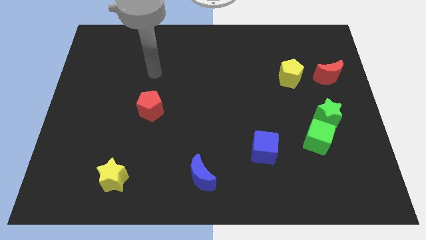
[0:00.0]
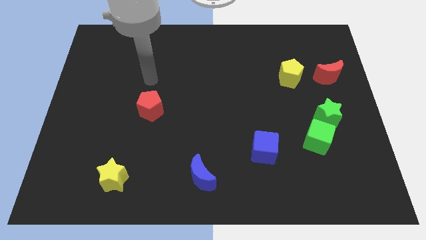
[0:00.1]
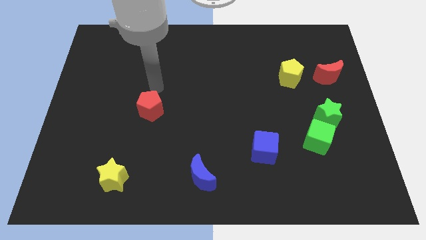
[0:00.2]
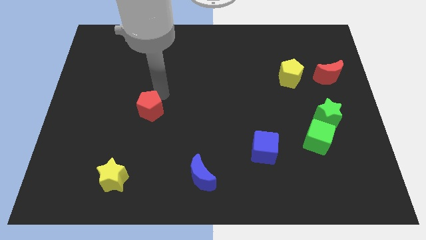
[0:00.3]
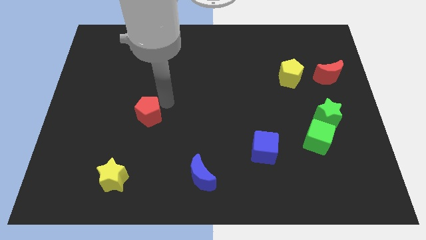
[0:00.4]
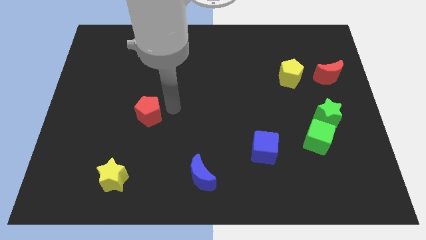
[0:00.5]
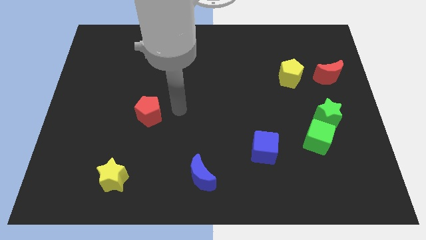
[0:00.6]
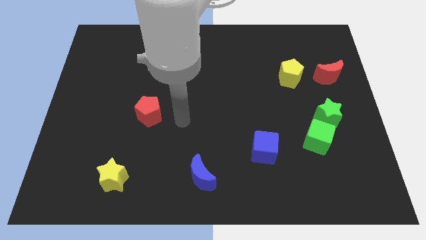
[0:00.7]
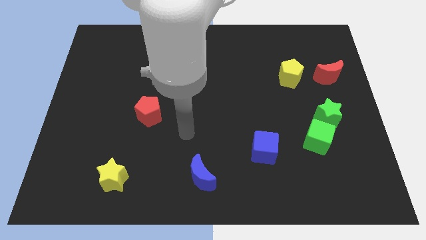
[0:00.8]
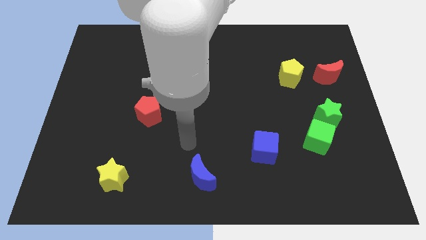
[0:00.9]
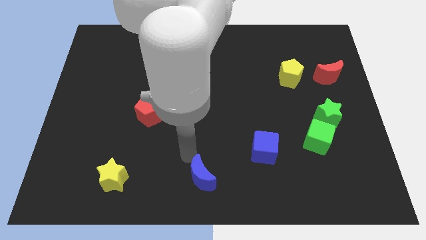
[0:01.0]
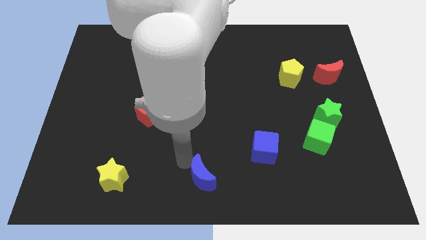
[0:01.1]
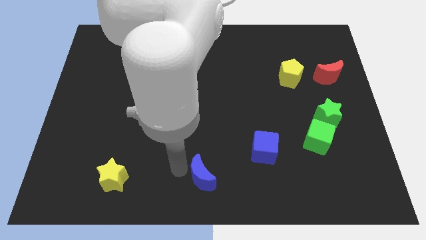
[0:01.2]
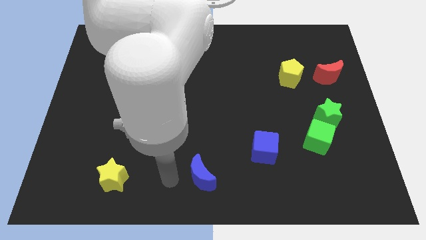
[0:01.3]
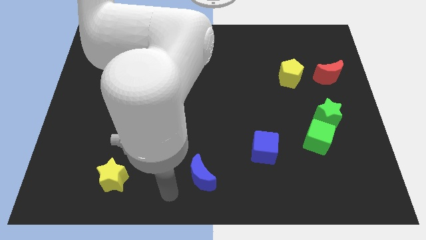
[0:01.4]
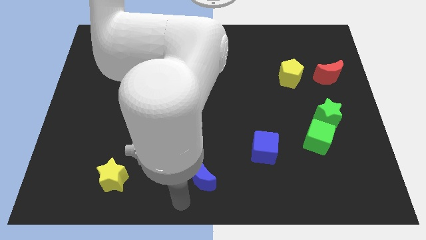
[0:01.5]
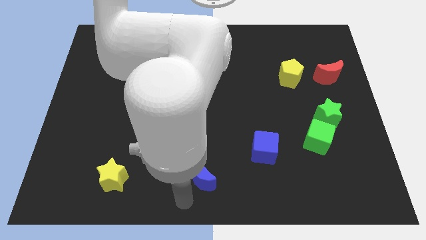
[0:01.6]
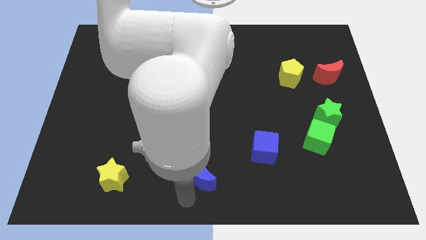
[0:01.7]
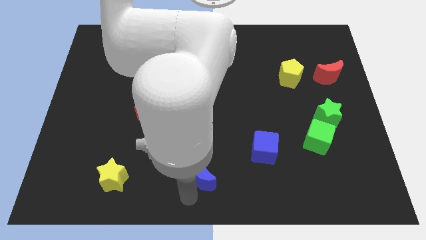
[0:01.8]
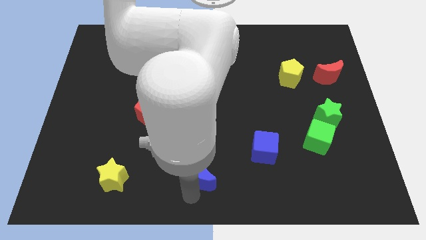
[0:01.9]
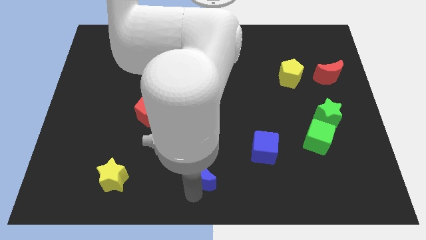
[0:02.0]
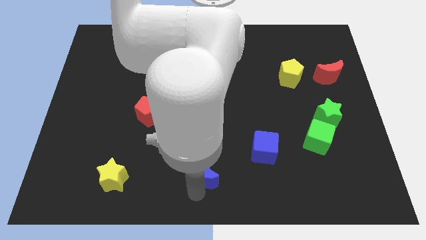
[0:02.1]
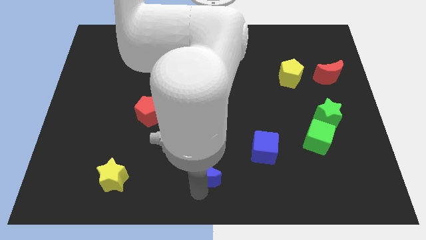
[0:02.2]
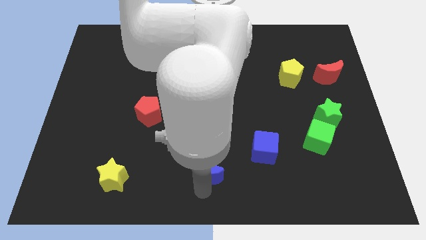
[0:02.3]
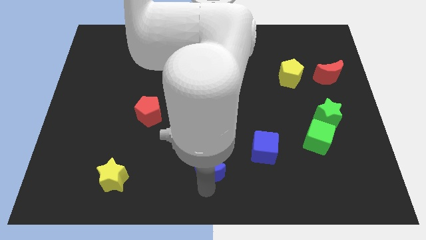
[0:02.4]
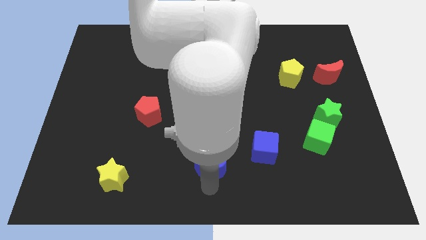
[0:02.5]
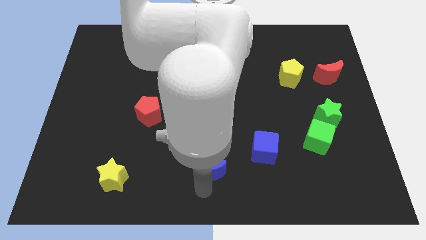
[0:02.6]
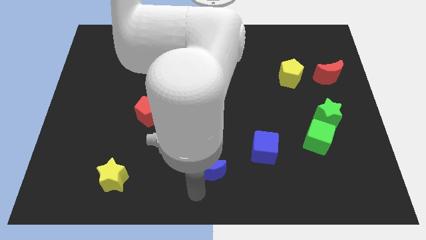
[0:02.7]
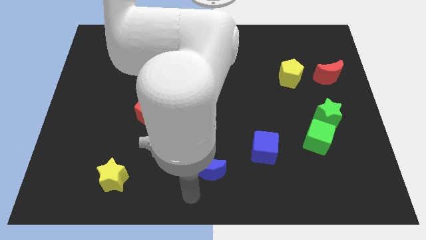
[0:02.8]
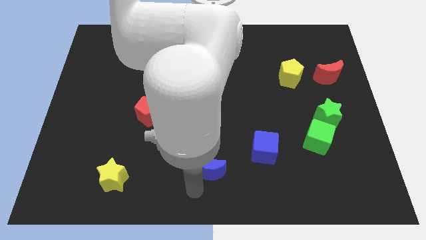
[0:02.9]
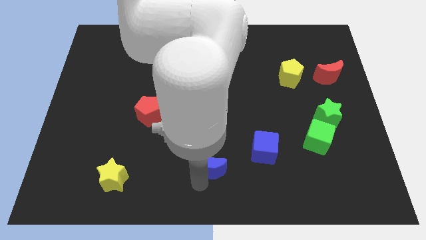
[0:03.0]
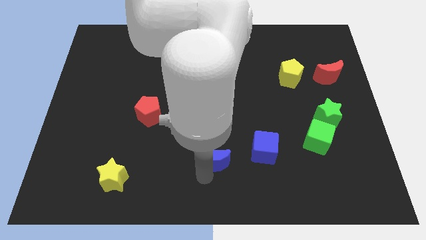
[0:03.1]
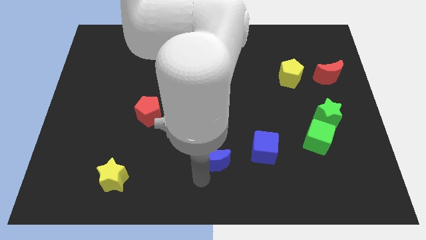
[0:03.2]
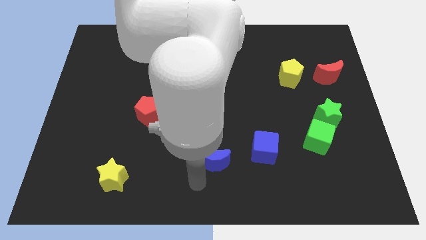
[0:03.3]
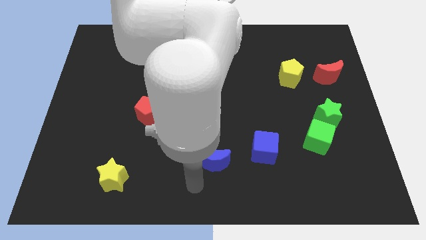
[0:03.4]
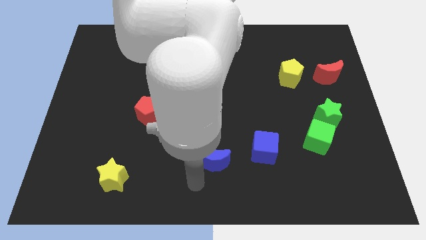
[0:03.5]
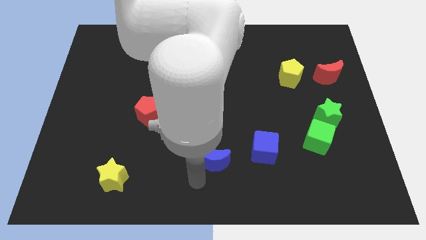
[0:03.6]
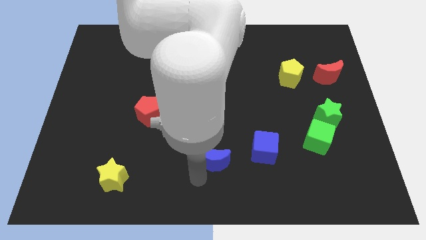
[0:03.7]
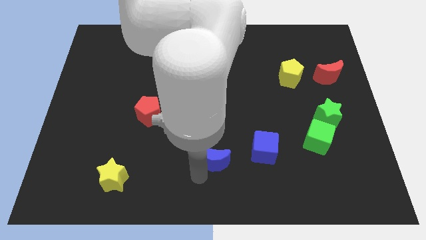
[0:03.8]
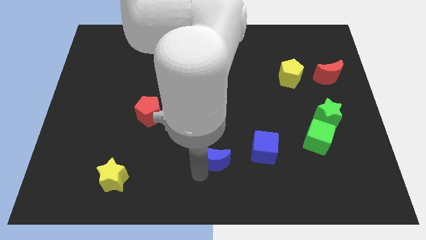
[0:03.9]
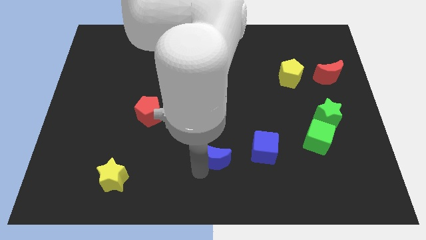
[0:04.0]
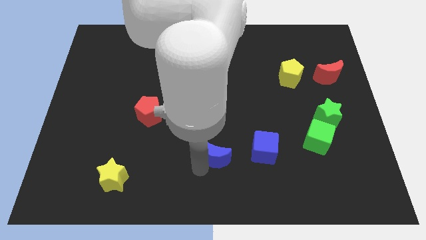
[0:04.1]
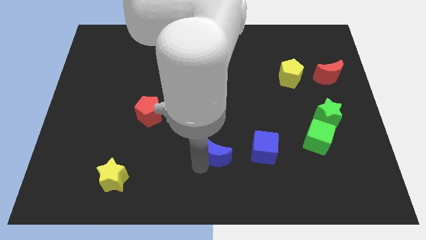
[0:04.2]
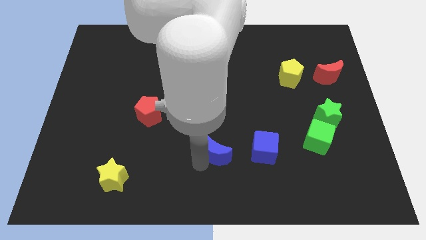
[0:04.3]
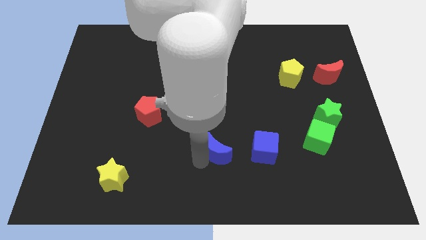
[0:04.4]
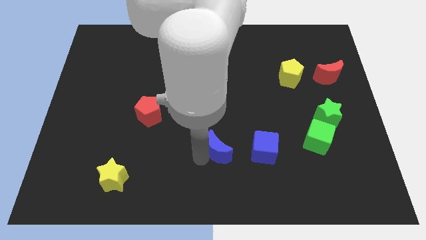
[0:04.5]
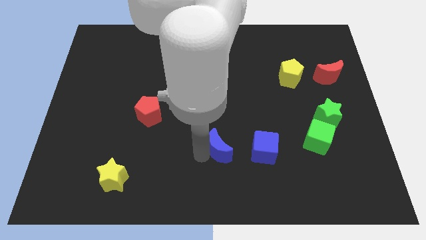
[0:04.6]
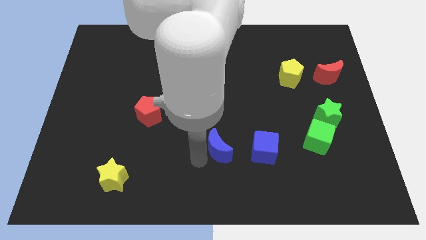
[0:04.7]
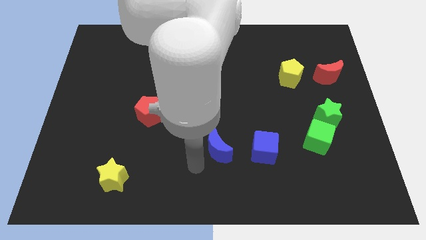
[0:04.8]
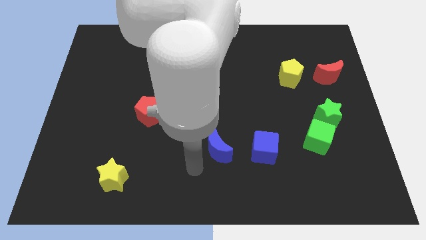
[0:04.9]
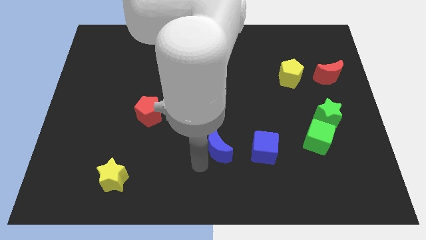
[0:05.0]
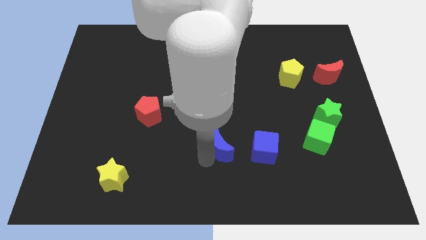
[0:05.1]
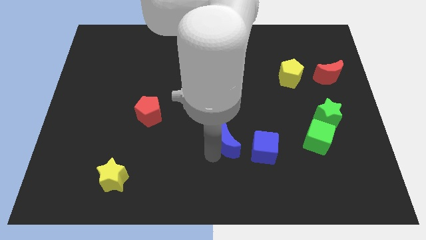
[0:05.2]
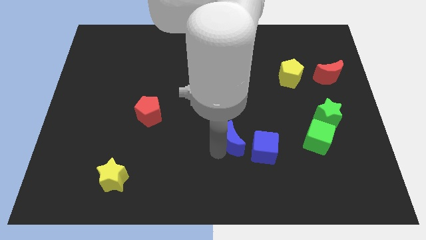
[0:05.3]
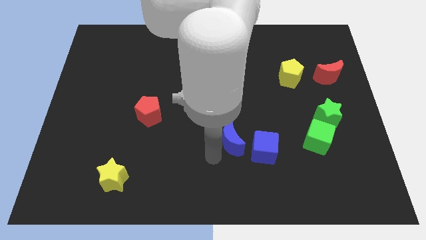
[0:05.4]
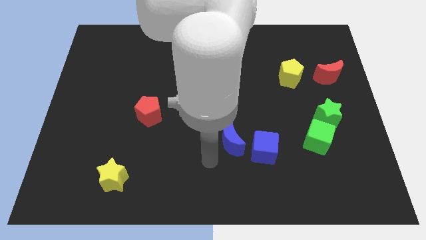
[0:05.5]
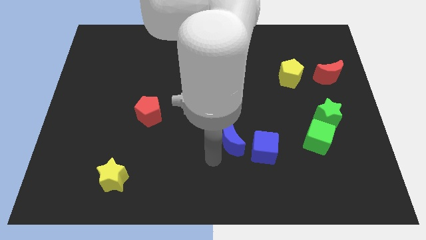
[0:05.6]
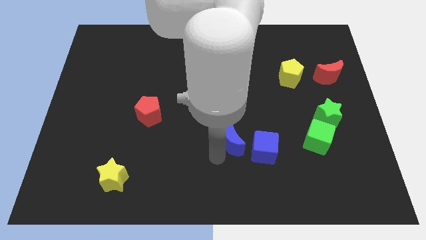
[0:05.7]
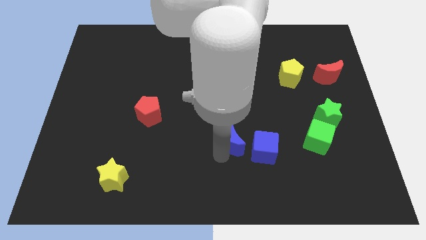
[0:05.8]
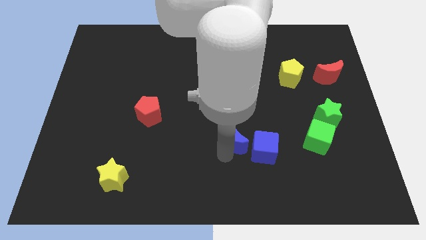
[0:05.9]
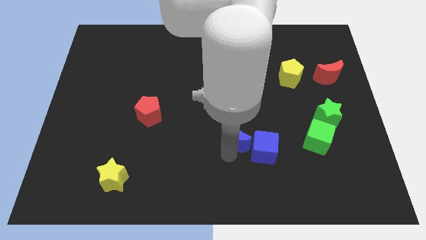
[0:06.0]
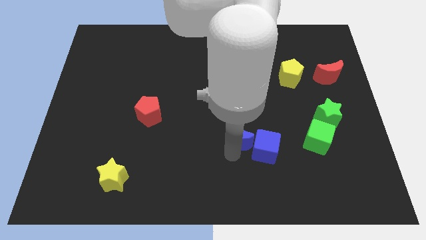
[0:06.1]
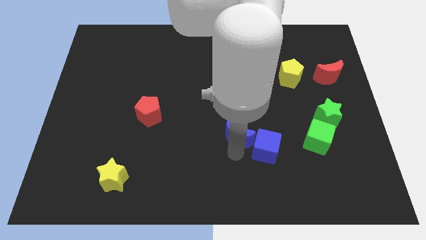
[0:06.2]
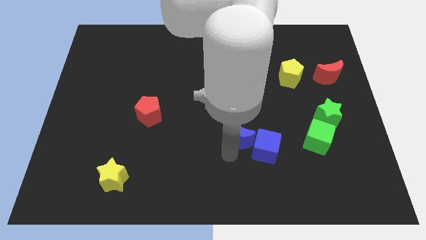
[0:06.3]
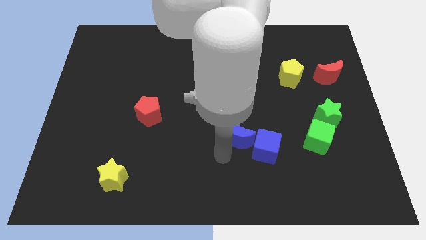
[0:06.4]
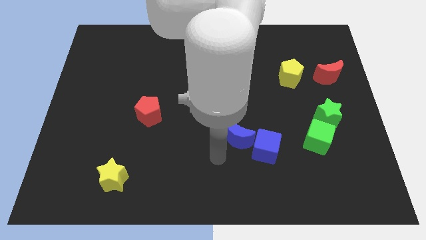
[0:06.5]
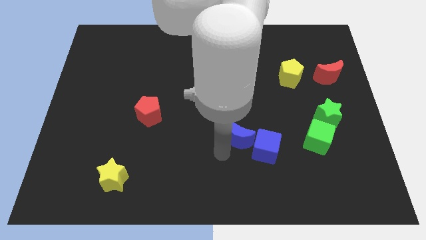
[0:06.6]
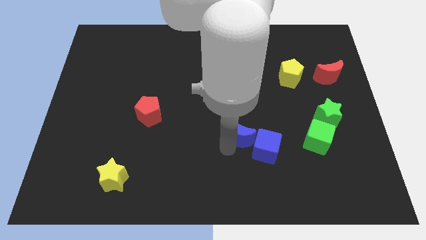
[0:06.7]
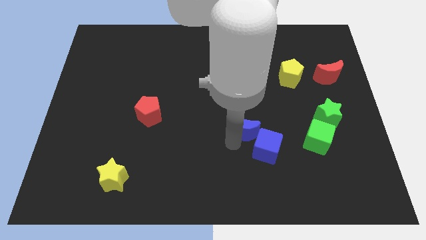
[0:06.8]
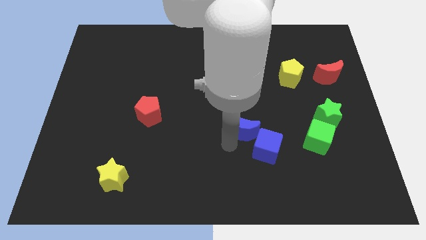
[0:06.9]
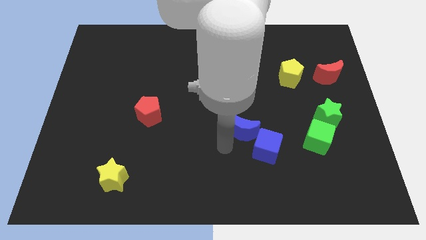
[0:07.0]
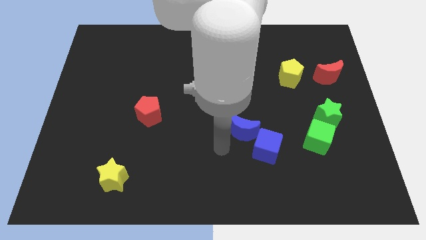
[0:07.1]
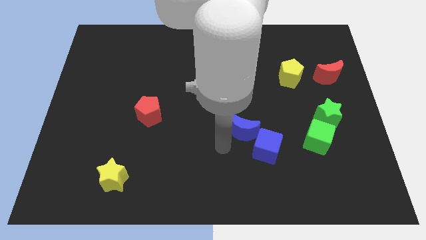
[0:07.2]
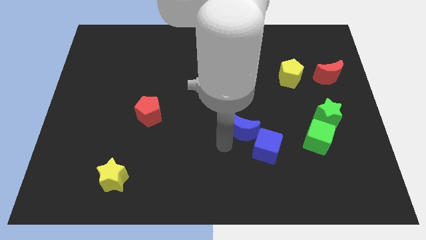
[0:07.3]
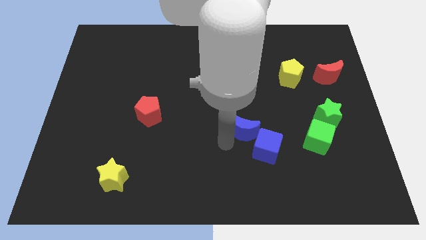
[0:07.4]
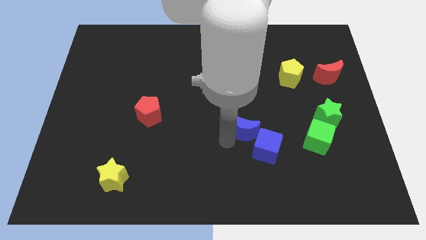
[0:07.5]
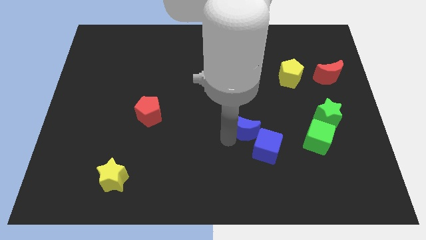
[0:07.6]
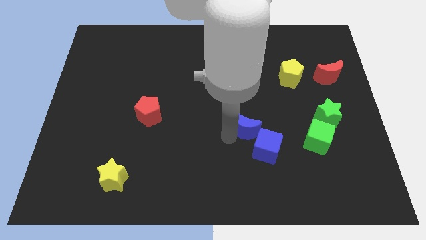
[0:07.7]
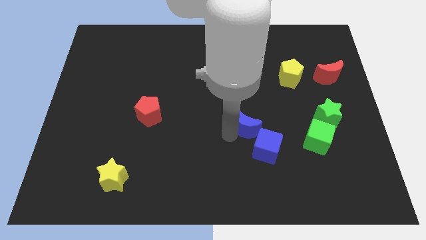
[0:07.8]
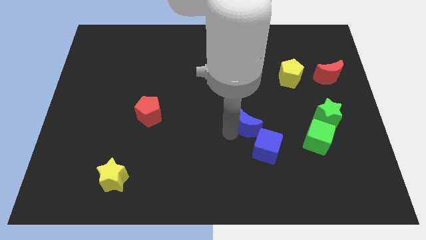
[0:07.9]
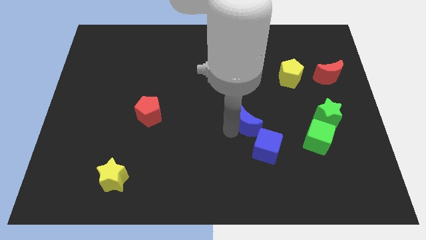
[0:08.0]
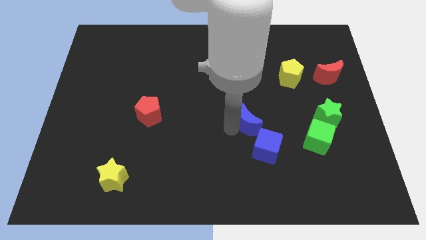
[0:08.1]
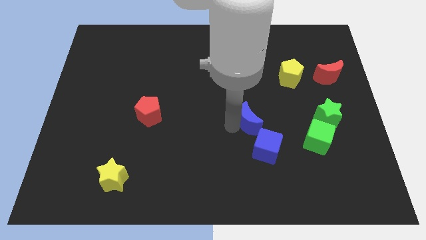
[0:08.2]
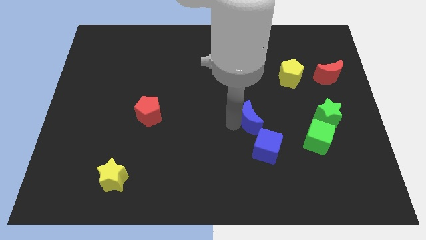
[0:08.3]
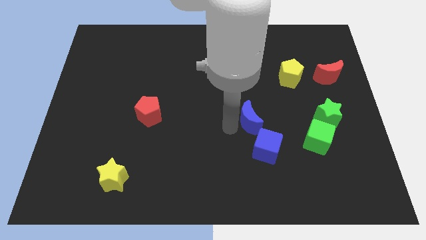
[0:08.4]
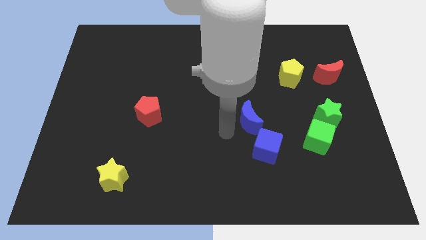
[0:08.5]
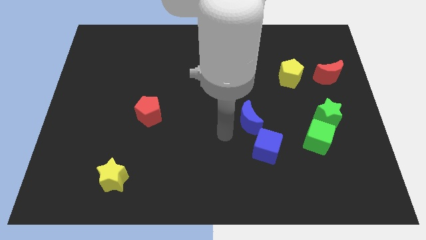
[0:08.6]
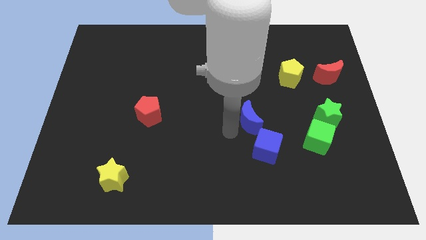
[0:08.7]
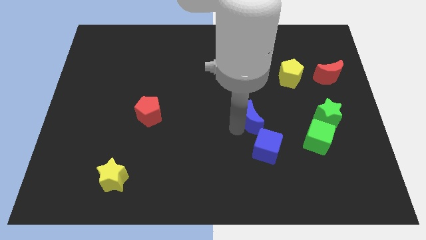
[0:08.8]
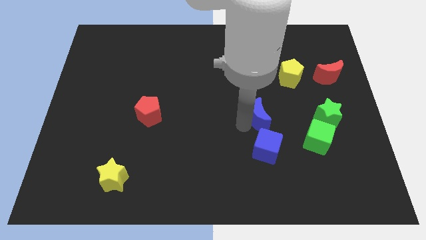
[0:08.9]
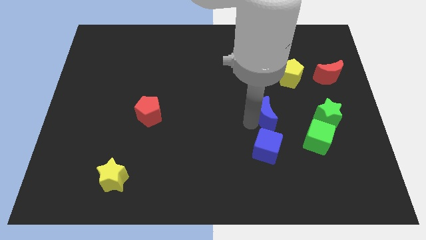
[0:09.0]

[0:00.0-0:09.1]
push the blue moon up and right
